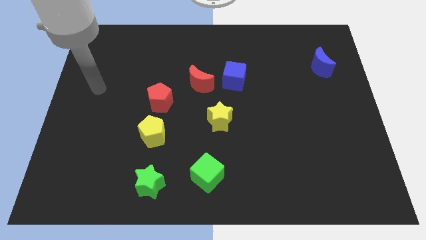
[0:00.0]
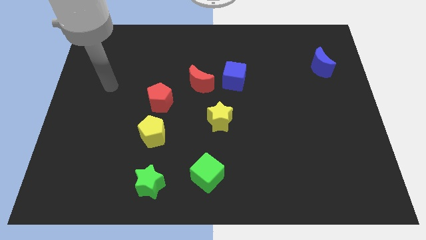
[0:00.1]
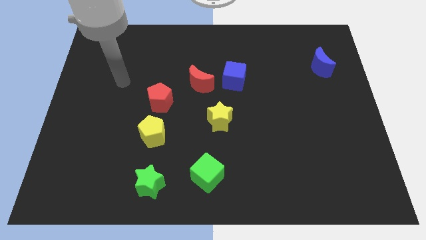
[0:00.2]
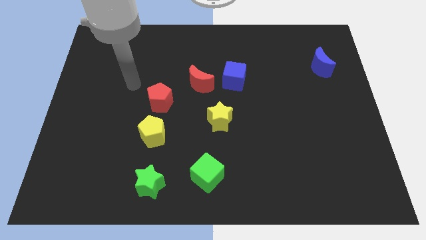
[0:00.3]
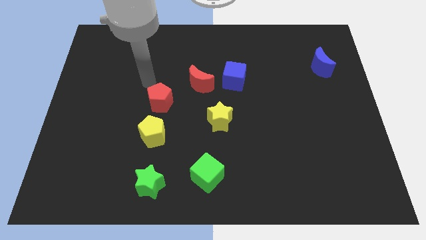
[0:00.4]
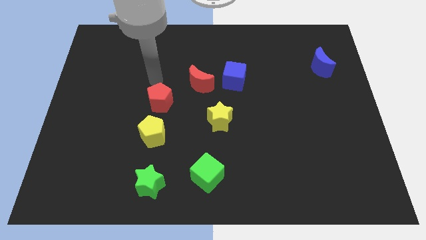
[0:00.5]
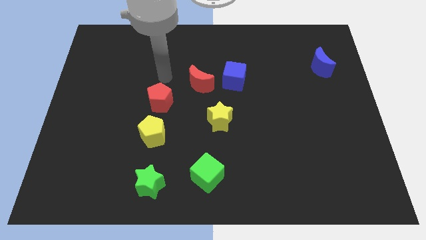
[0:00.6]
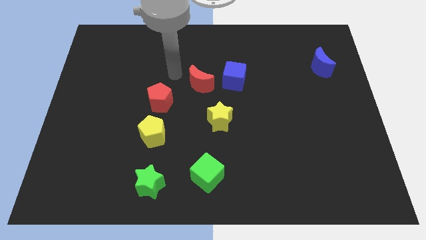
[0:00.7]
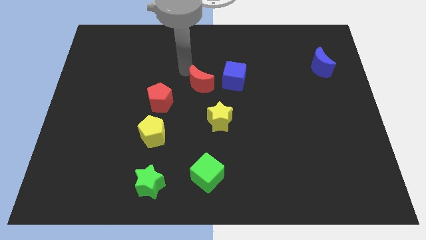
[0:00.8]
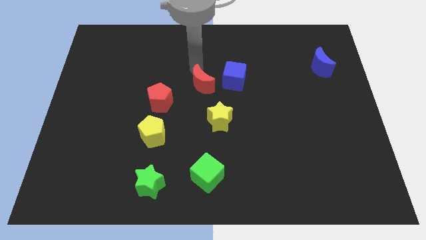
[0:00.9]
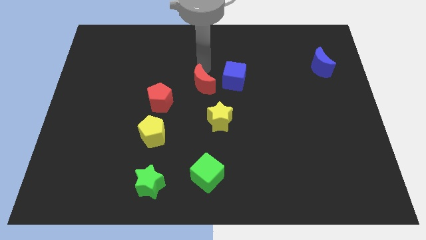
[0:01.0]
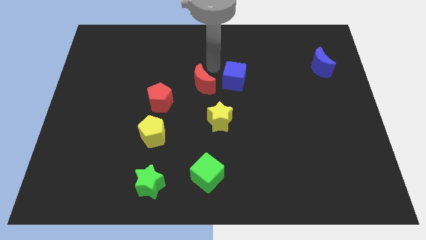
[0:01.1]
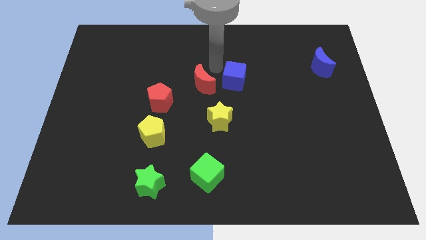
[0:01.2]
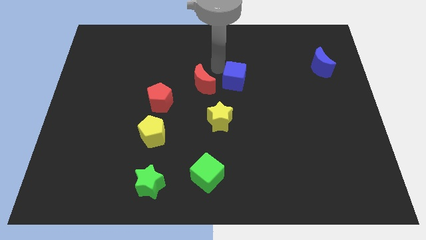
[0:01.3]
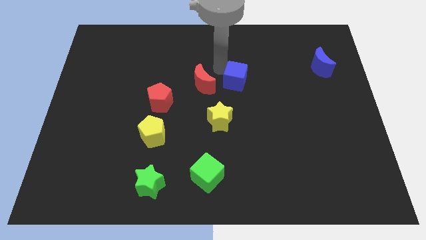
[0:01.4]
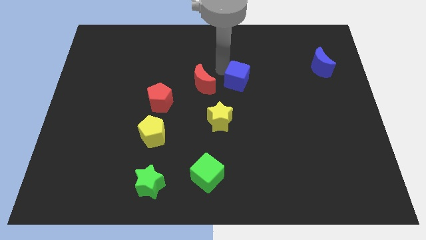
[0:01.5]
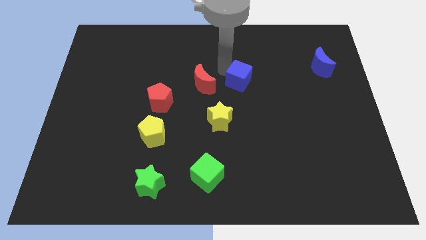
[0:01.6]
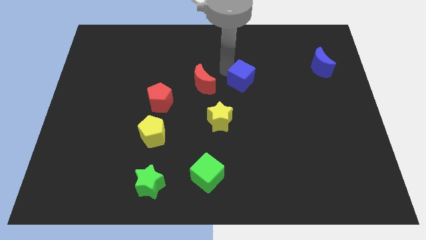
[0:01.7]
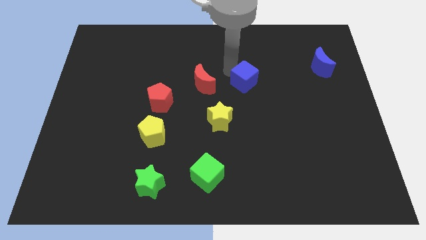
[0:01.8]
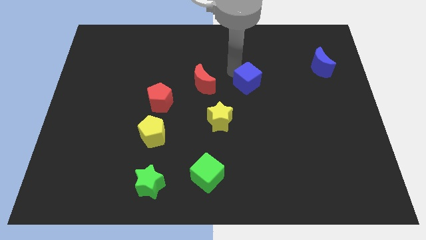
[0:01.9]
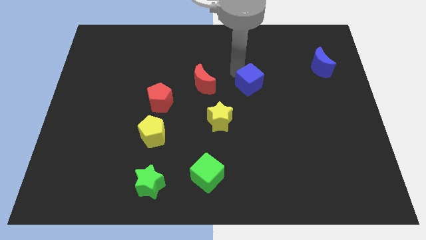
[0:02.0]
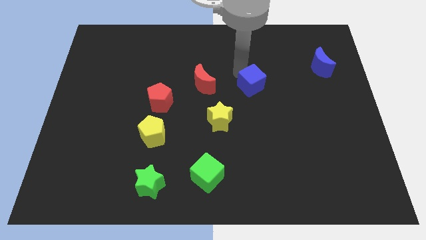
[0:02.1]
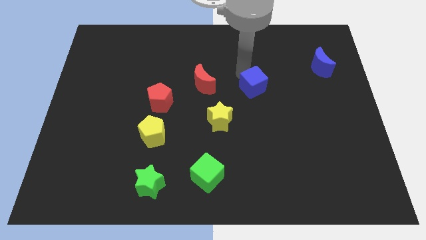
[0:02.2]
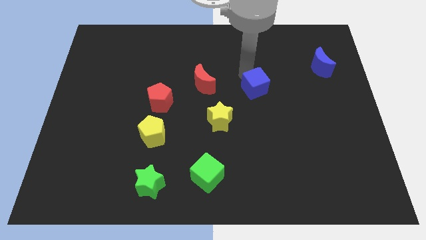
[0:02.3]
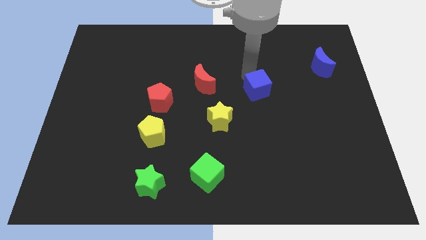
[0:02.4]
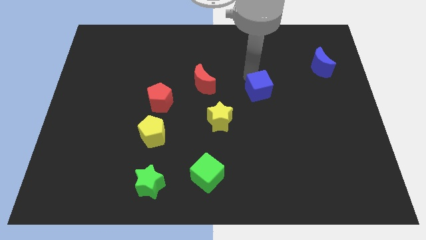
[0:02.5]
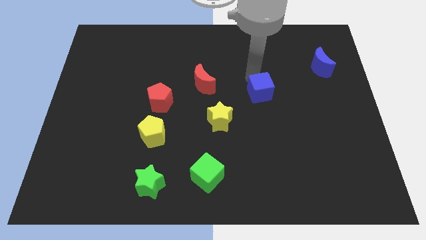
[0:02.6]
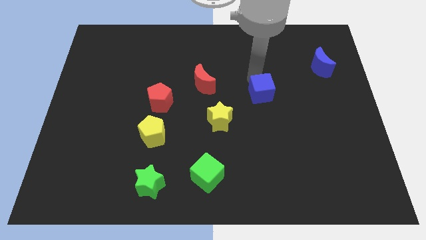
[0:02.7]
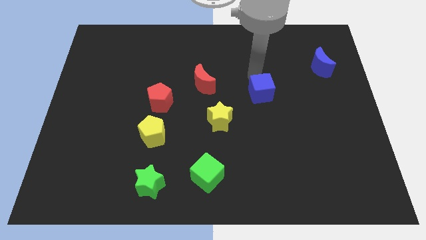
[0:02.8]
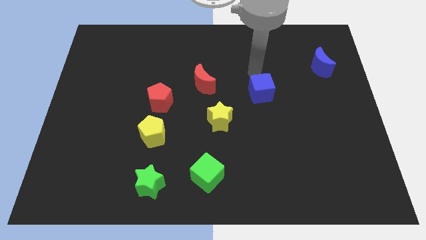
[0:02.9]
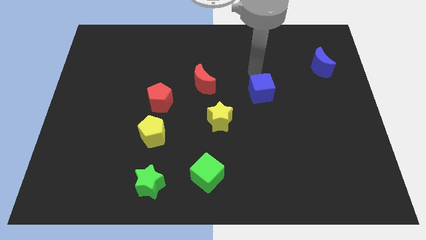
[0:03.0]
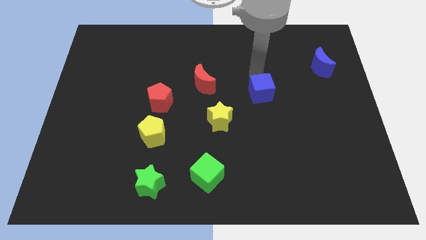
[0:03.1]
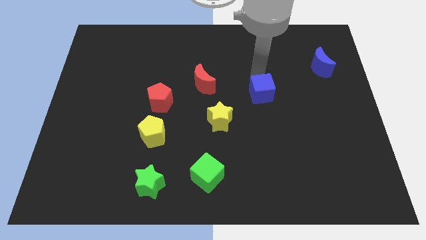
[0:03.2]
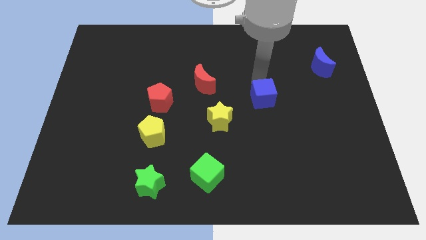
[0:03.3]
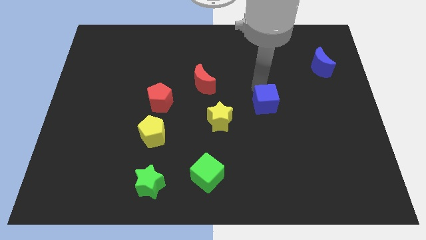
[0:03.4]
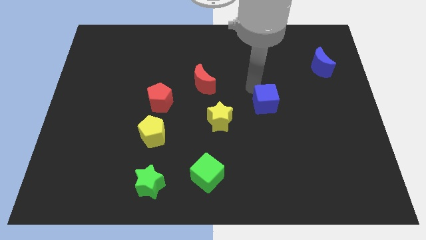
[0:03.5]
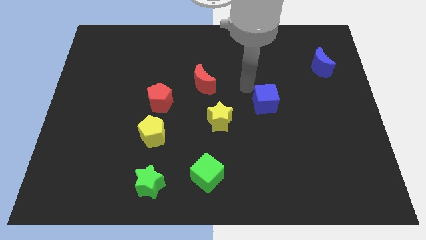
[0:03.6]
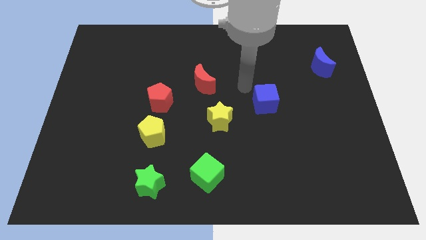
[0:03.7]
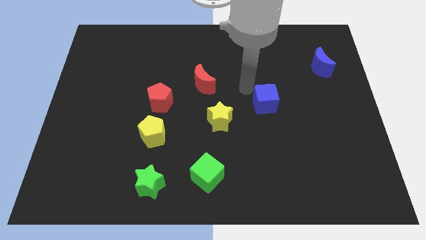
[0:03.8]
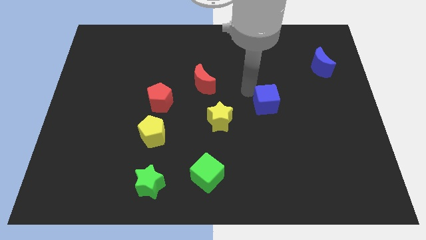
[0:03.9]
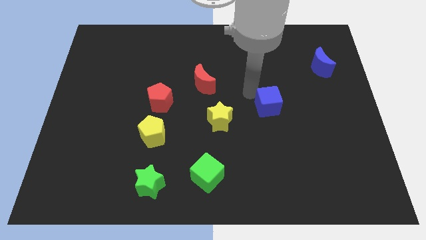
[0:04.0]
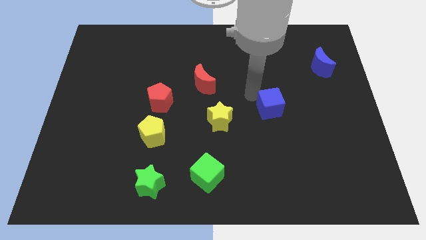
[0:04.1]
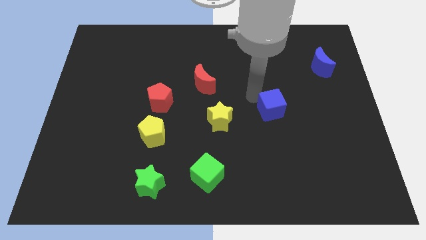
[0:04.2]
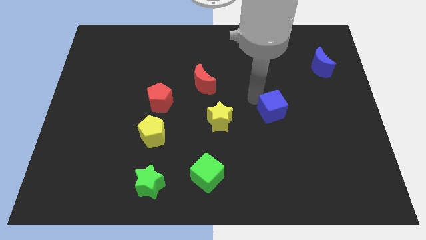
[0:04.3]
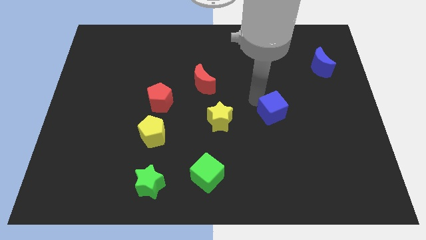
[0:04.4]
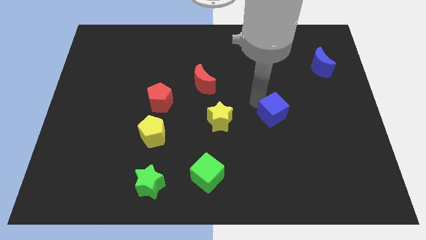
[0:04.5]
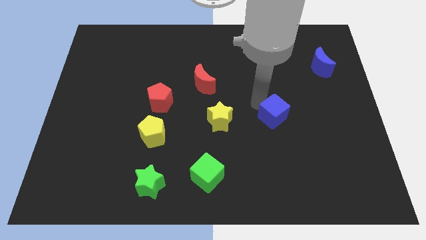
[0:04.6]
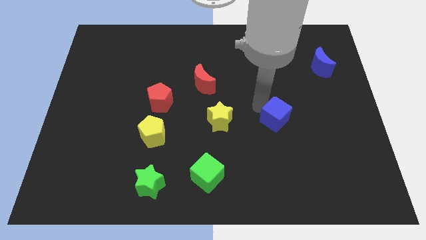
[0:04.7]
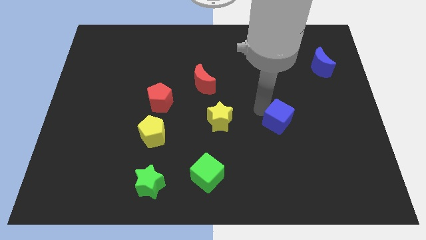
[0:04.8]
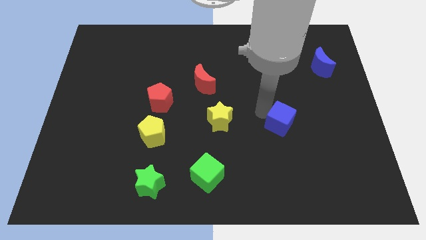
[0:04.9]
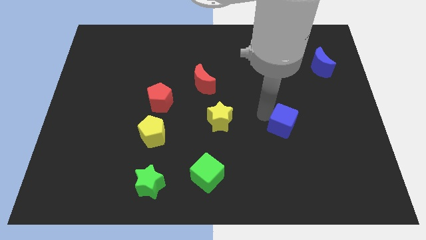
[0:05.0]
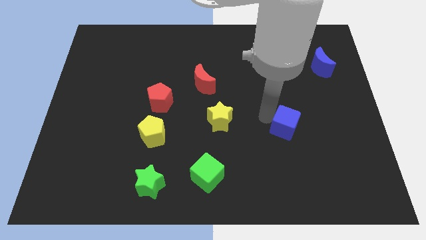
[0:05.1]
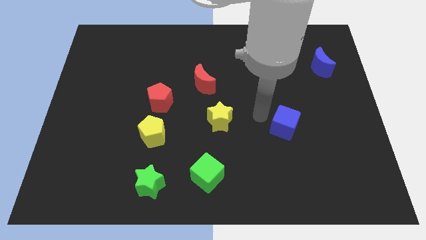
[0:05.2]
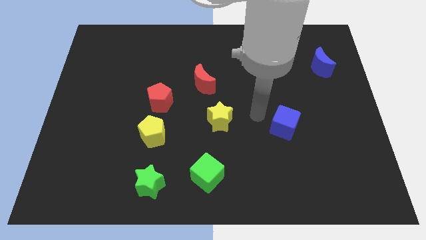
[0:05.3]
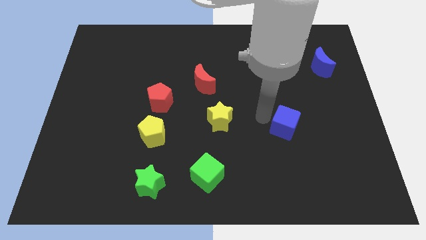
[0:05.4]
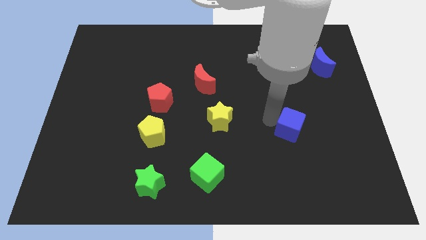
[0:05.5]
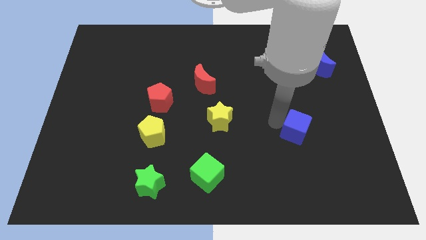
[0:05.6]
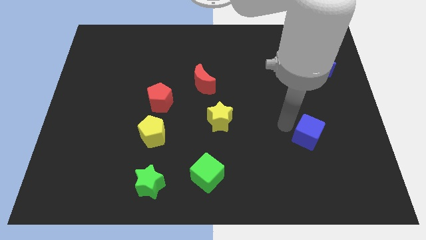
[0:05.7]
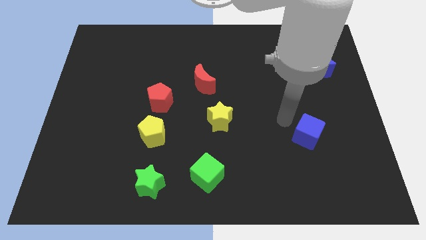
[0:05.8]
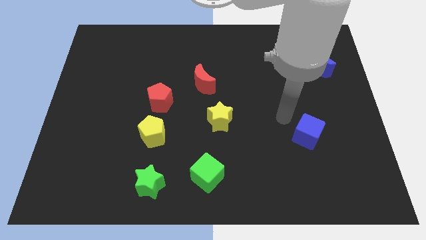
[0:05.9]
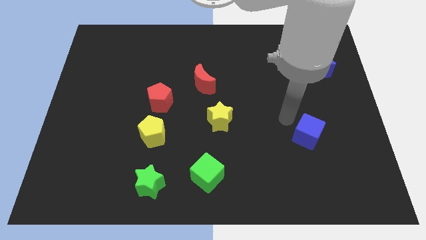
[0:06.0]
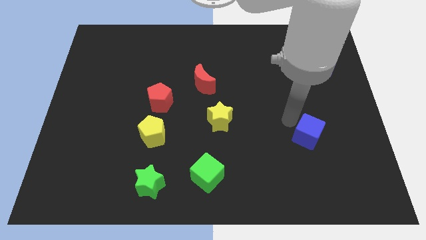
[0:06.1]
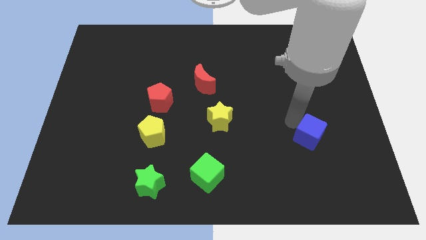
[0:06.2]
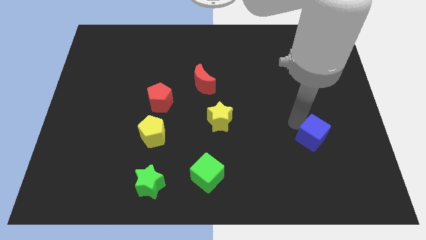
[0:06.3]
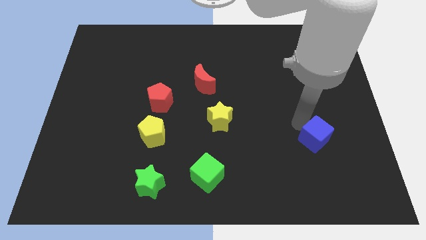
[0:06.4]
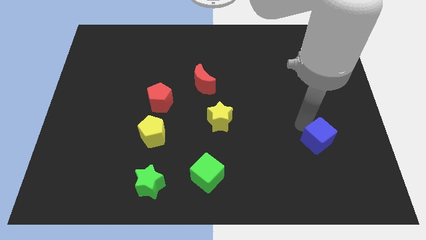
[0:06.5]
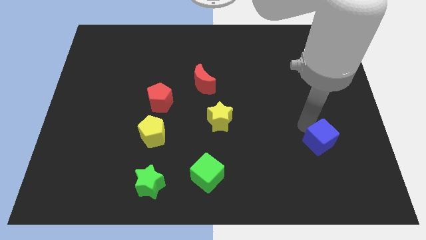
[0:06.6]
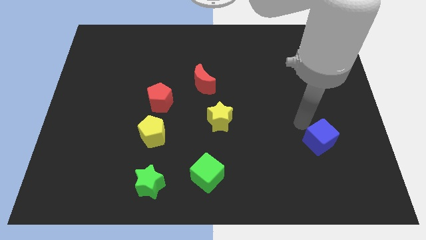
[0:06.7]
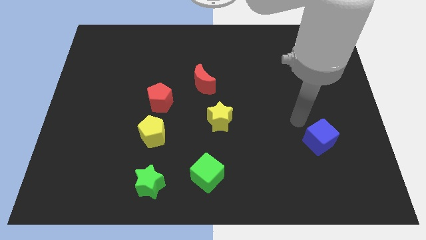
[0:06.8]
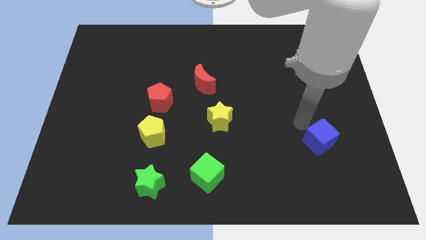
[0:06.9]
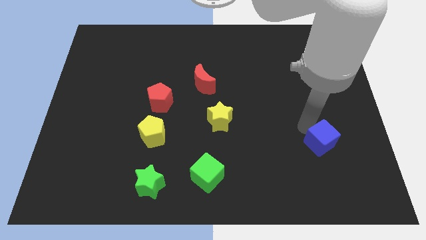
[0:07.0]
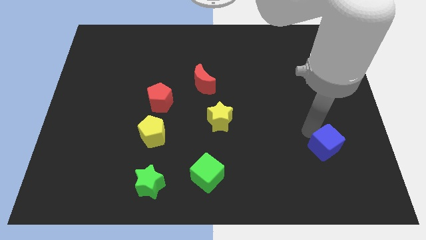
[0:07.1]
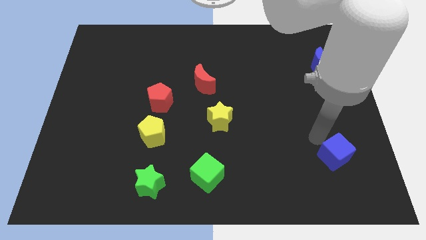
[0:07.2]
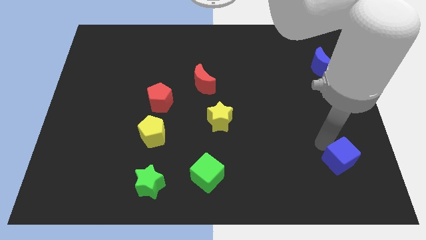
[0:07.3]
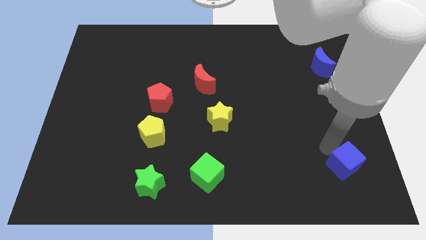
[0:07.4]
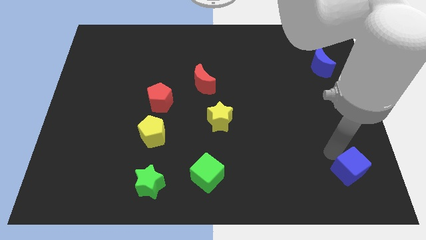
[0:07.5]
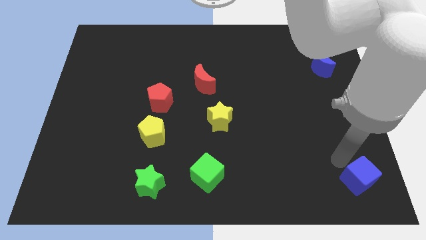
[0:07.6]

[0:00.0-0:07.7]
push the blue cube to the bottom right of the board
